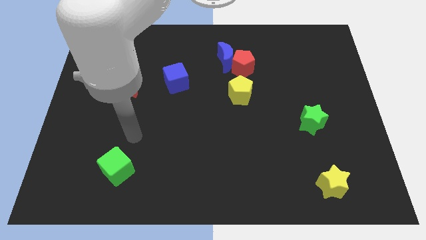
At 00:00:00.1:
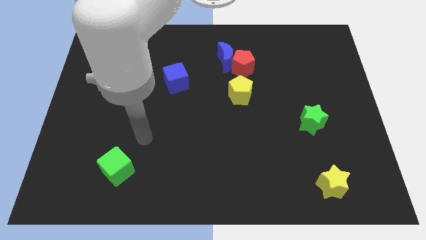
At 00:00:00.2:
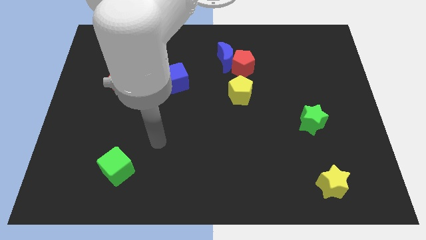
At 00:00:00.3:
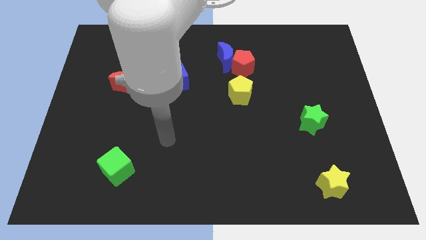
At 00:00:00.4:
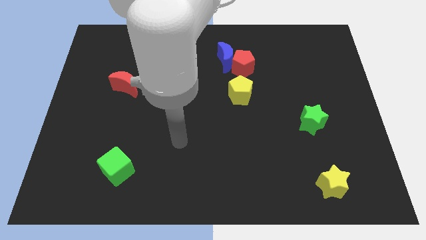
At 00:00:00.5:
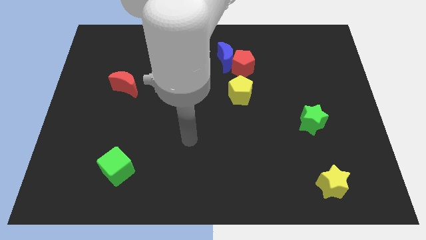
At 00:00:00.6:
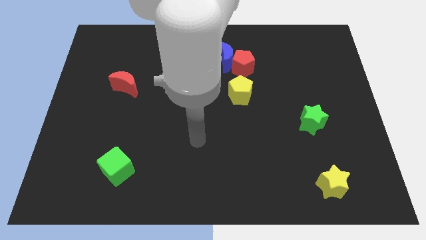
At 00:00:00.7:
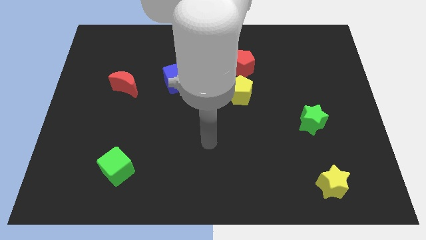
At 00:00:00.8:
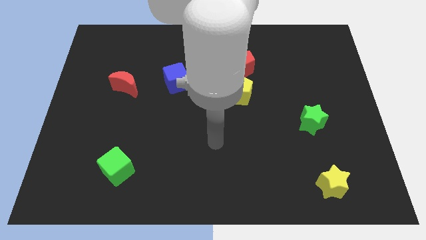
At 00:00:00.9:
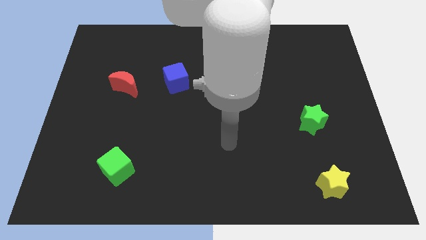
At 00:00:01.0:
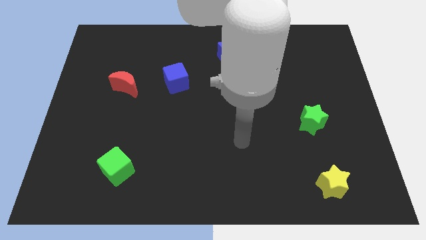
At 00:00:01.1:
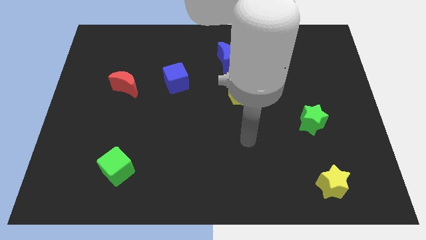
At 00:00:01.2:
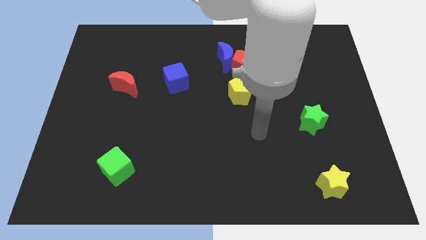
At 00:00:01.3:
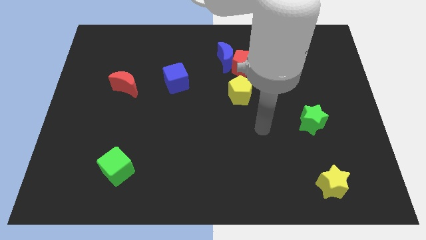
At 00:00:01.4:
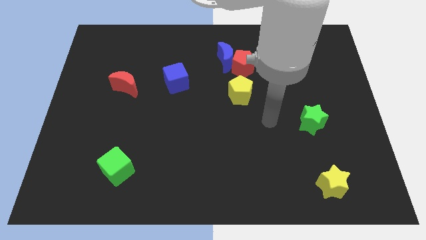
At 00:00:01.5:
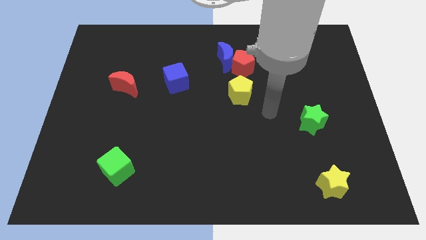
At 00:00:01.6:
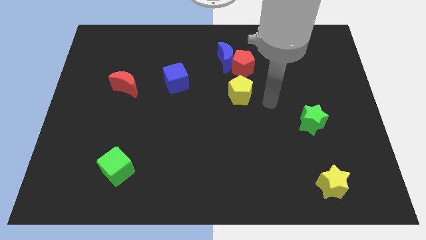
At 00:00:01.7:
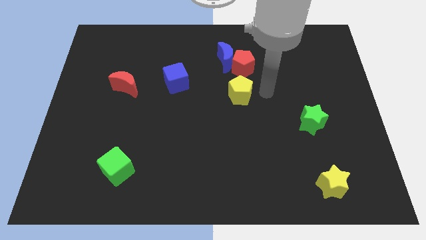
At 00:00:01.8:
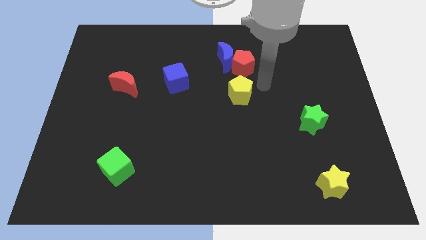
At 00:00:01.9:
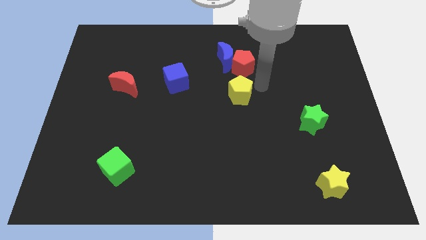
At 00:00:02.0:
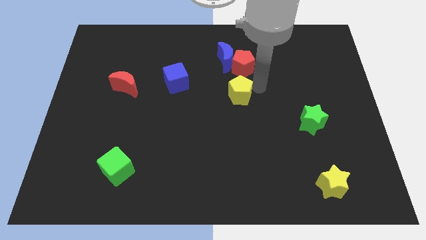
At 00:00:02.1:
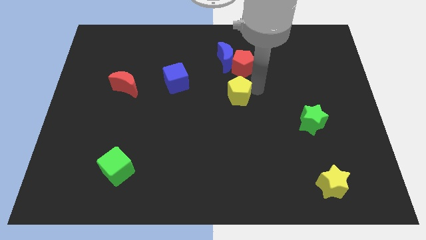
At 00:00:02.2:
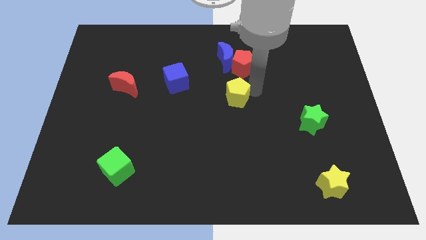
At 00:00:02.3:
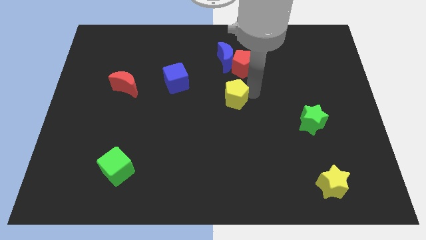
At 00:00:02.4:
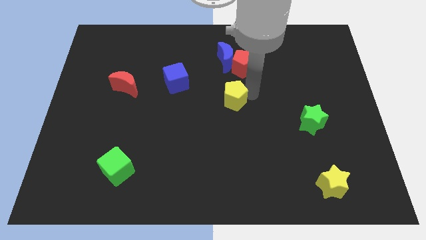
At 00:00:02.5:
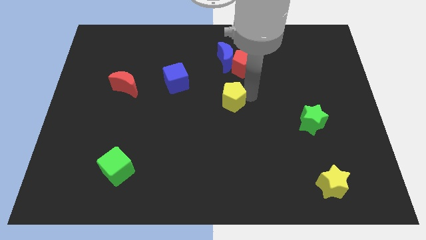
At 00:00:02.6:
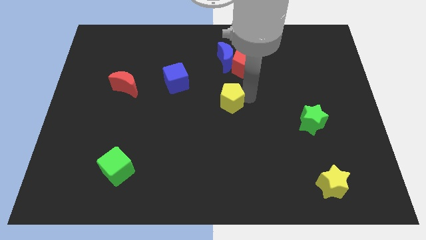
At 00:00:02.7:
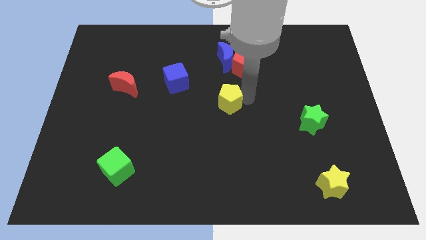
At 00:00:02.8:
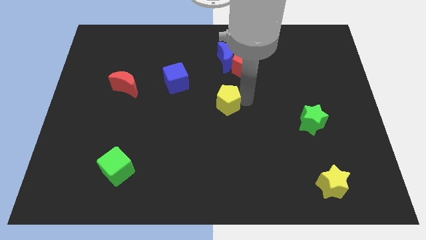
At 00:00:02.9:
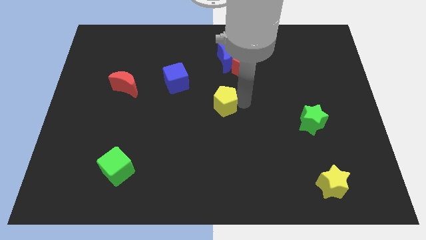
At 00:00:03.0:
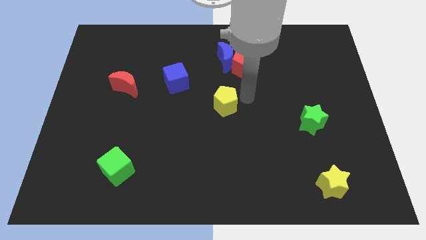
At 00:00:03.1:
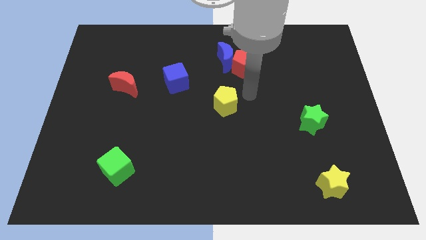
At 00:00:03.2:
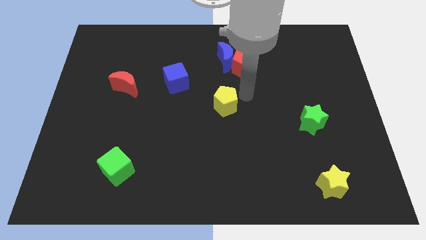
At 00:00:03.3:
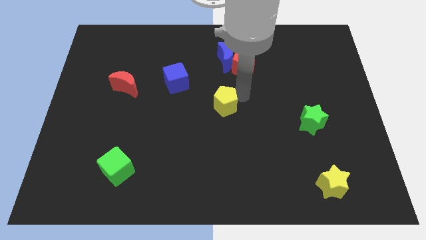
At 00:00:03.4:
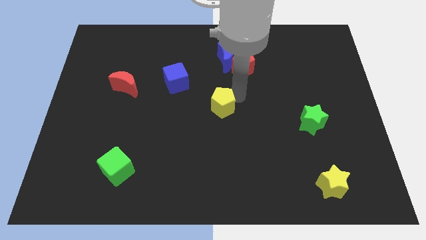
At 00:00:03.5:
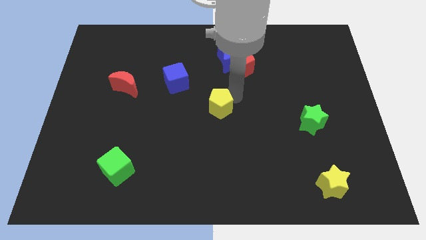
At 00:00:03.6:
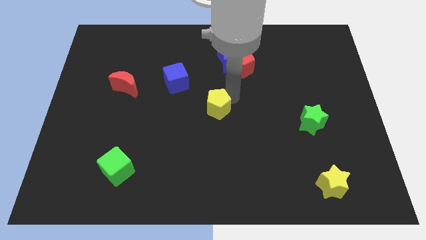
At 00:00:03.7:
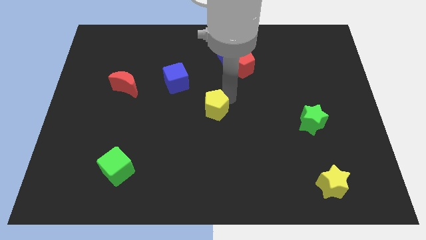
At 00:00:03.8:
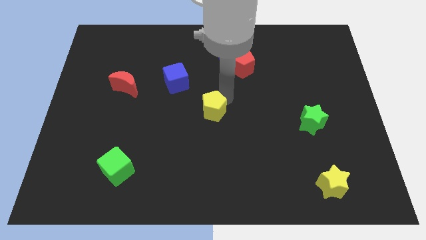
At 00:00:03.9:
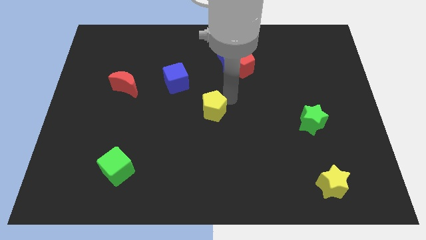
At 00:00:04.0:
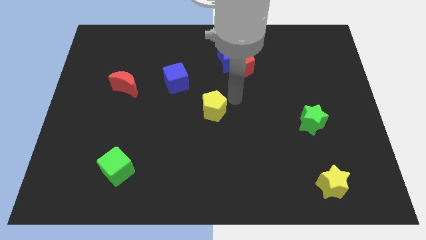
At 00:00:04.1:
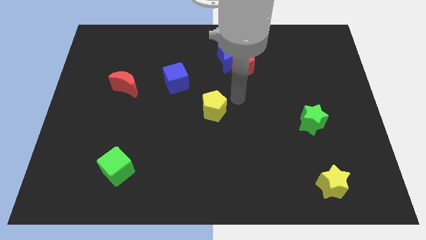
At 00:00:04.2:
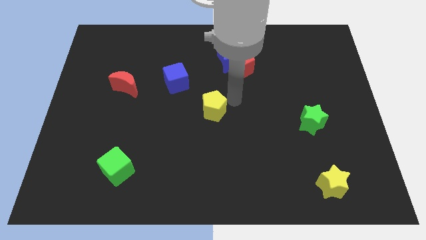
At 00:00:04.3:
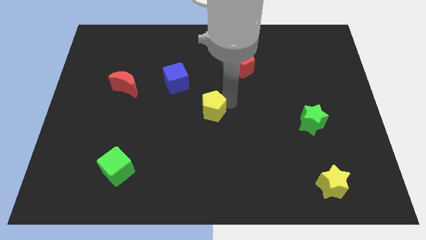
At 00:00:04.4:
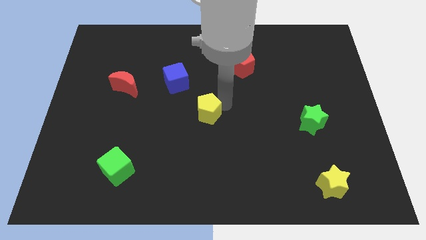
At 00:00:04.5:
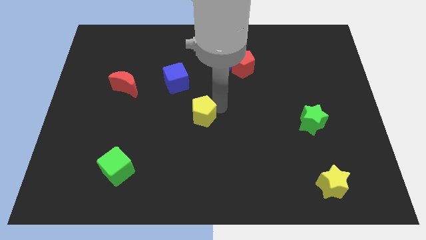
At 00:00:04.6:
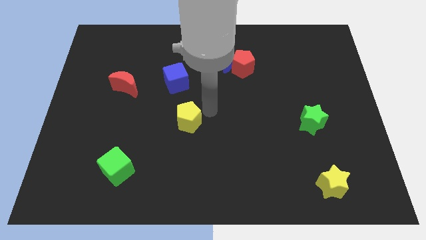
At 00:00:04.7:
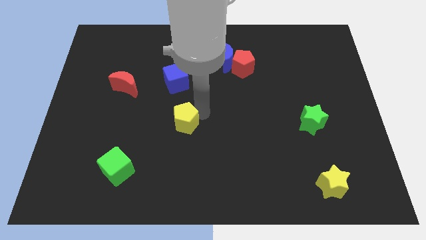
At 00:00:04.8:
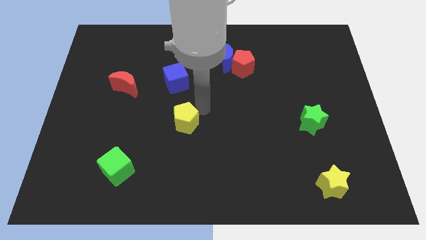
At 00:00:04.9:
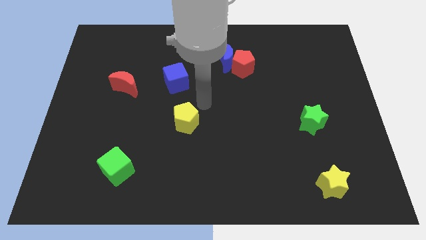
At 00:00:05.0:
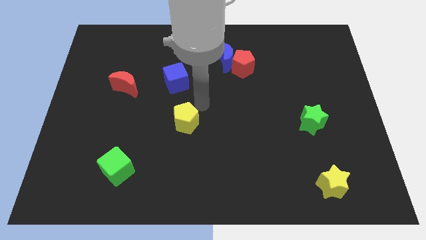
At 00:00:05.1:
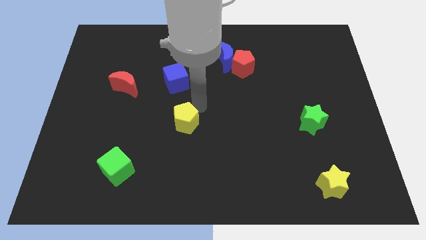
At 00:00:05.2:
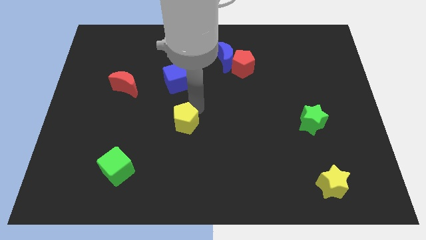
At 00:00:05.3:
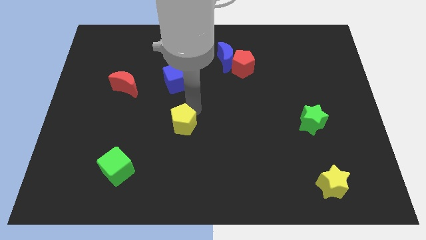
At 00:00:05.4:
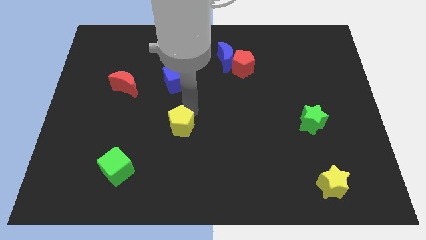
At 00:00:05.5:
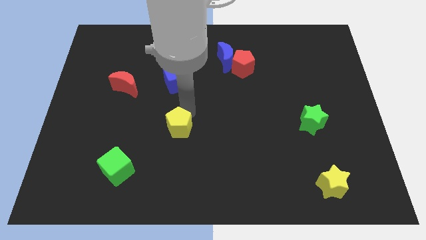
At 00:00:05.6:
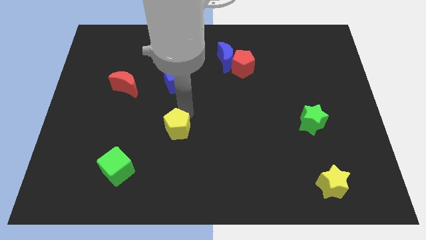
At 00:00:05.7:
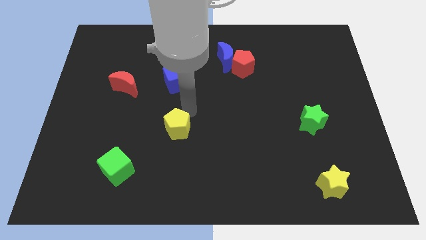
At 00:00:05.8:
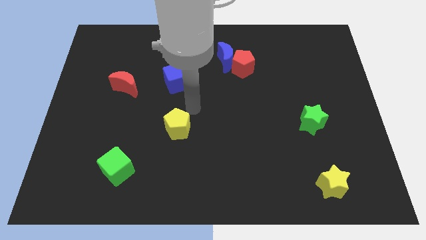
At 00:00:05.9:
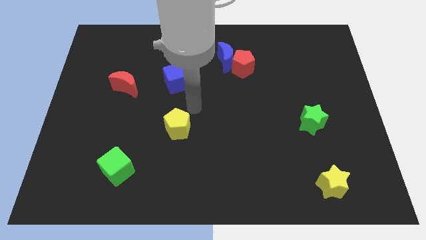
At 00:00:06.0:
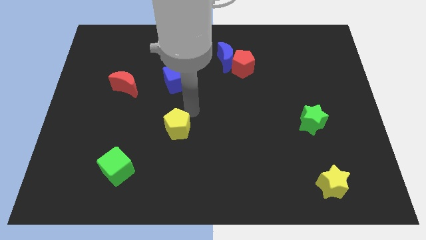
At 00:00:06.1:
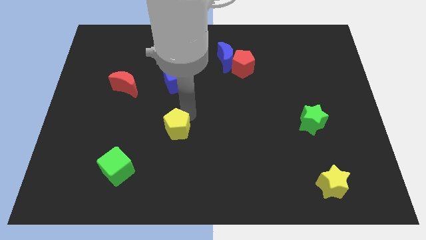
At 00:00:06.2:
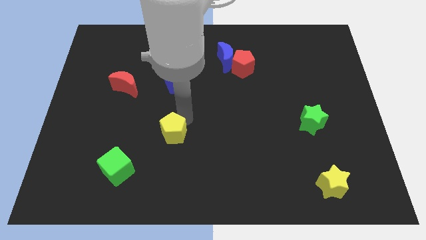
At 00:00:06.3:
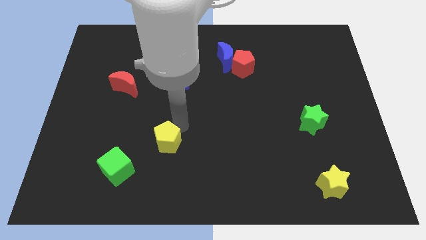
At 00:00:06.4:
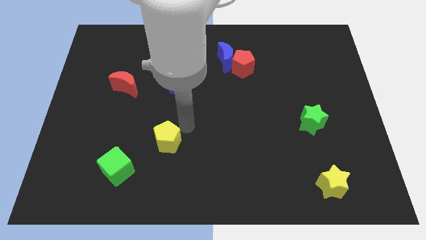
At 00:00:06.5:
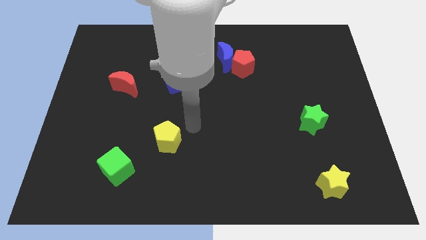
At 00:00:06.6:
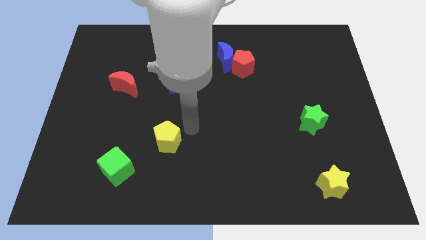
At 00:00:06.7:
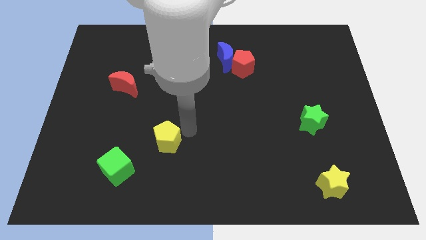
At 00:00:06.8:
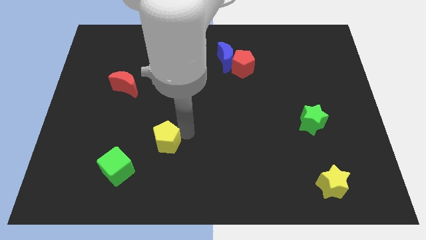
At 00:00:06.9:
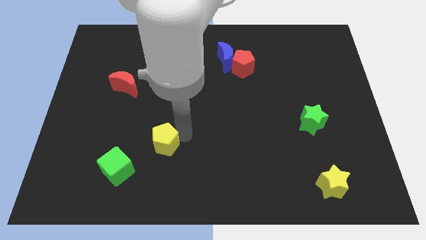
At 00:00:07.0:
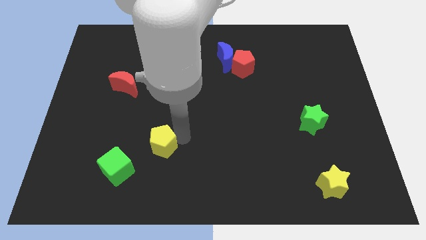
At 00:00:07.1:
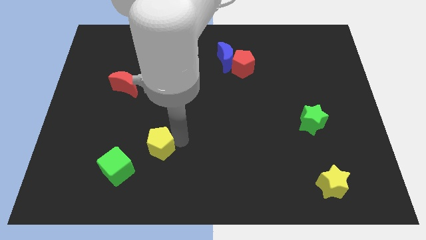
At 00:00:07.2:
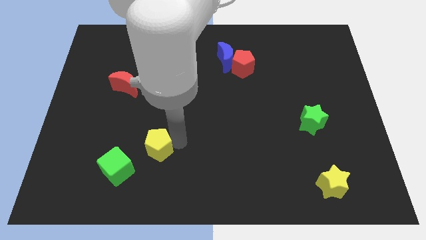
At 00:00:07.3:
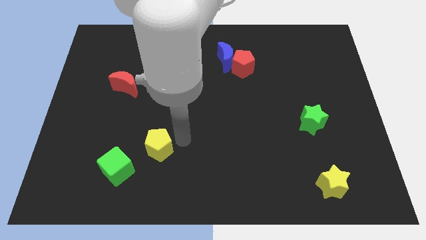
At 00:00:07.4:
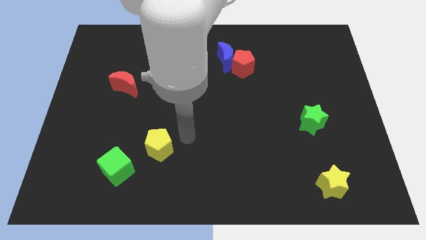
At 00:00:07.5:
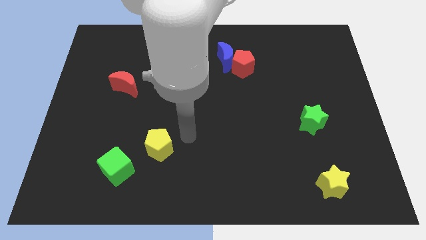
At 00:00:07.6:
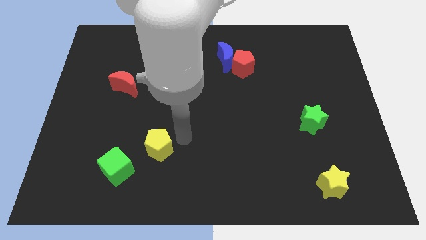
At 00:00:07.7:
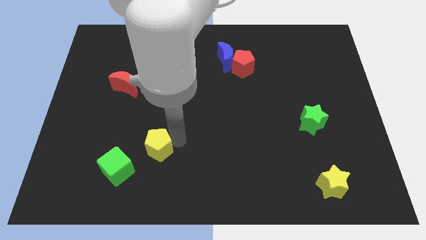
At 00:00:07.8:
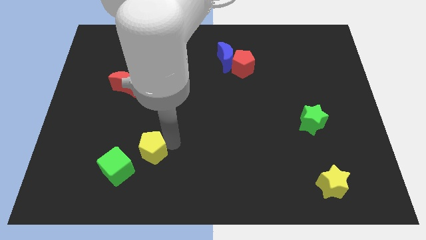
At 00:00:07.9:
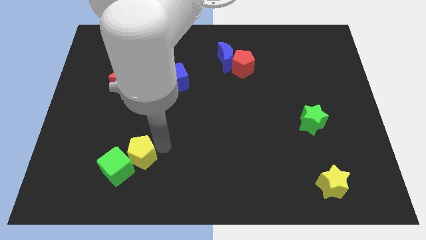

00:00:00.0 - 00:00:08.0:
put the yellow pentagon close to the green cube

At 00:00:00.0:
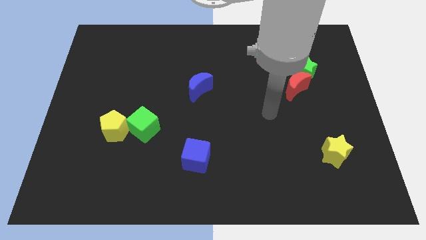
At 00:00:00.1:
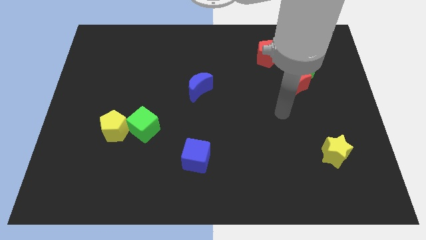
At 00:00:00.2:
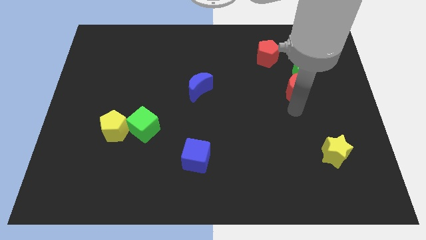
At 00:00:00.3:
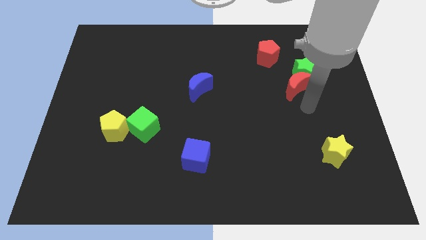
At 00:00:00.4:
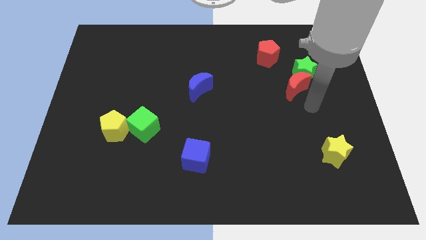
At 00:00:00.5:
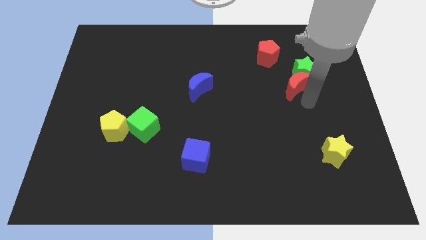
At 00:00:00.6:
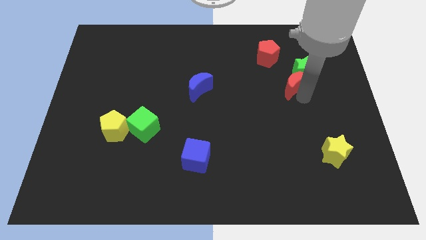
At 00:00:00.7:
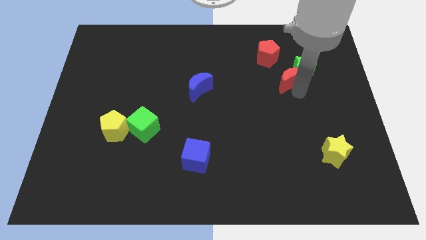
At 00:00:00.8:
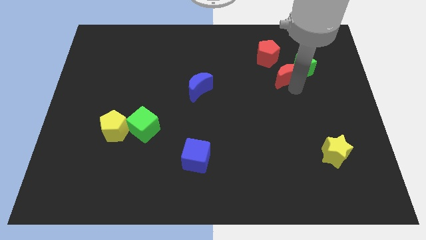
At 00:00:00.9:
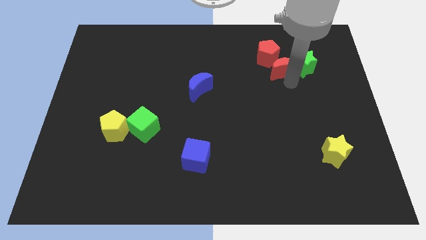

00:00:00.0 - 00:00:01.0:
push the red moon to the red pentagon
